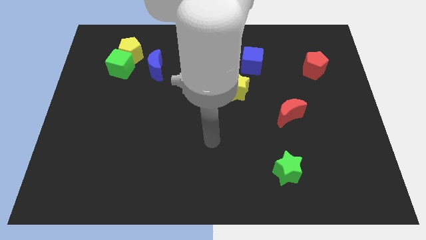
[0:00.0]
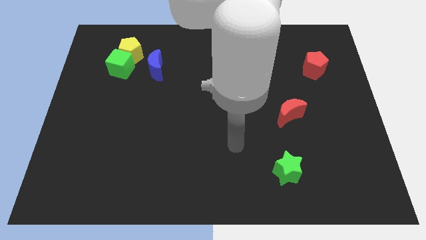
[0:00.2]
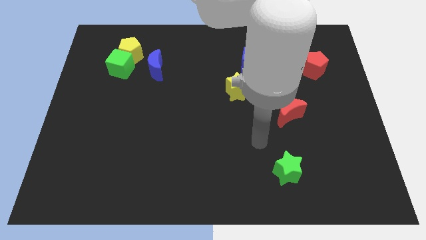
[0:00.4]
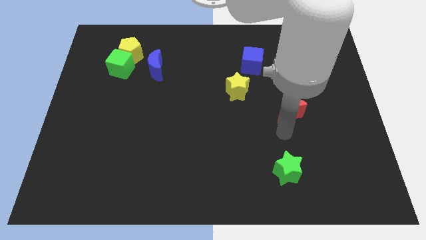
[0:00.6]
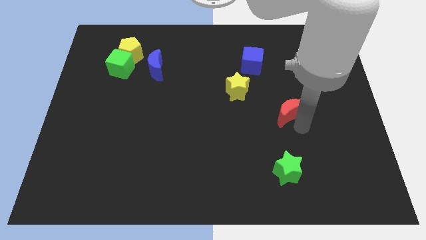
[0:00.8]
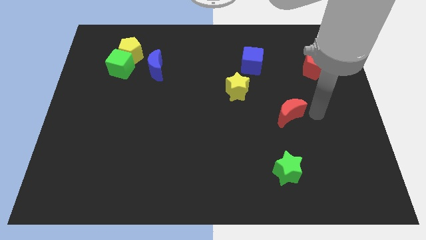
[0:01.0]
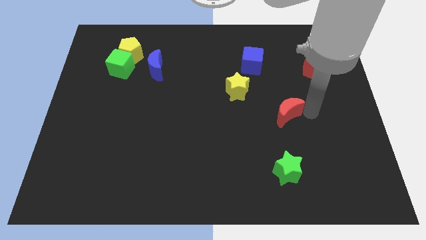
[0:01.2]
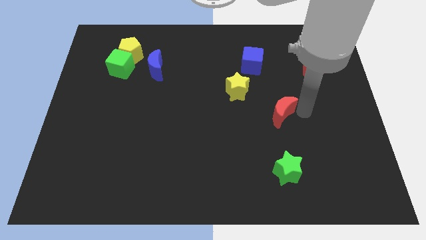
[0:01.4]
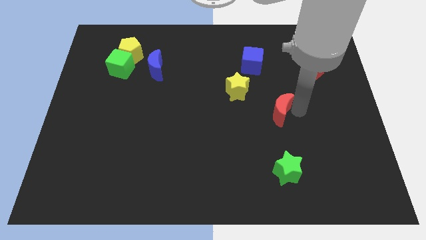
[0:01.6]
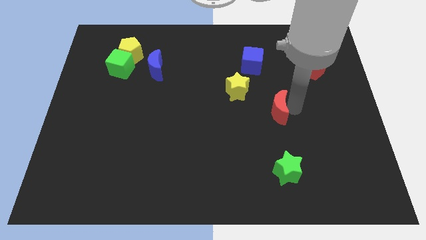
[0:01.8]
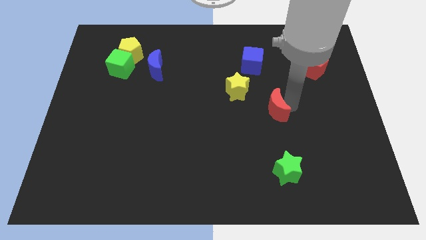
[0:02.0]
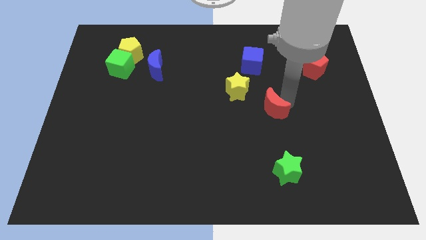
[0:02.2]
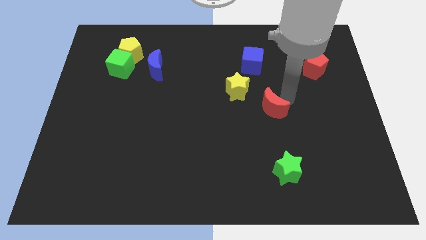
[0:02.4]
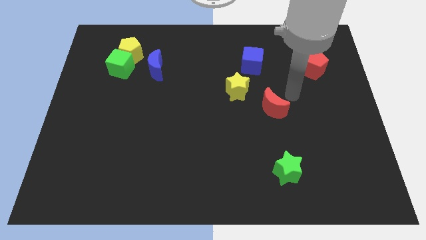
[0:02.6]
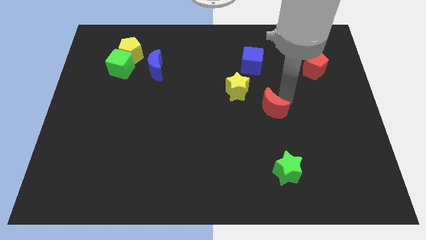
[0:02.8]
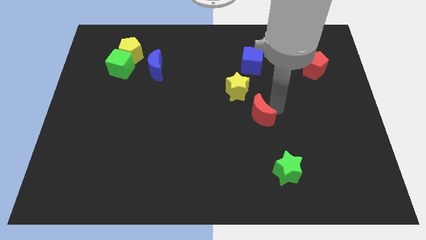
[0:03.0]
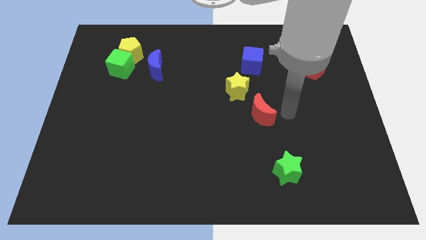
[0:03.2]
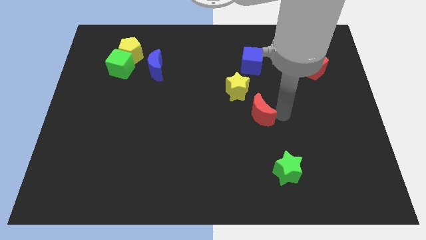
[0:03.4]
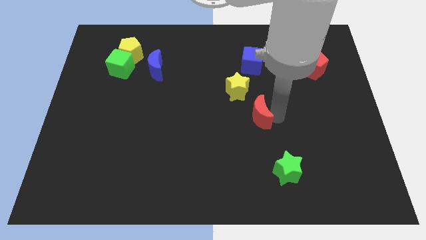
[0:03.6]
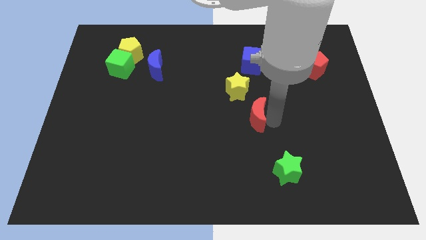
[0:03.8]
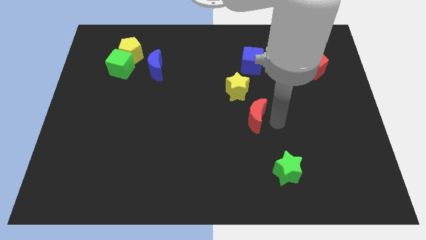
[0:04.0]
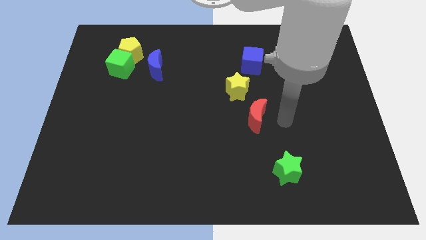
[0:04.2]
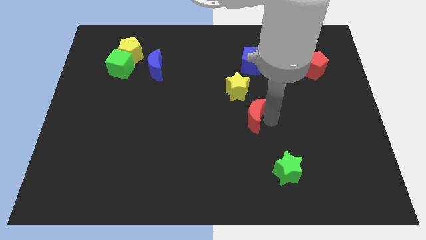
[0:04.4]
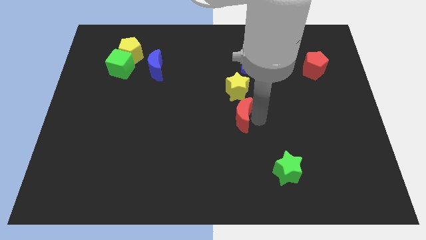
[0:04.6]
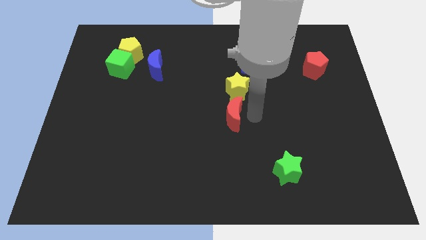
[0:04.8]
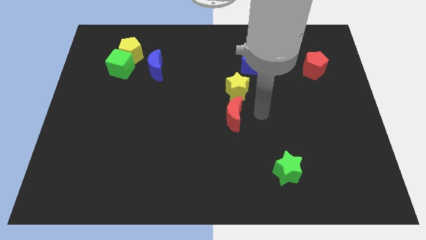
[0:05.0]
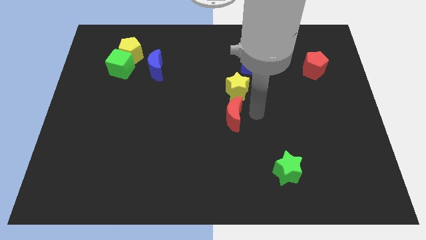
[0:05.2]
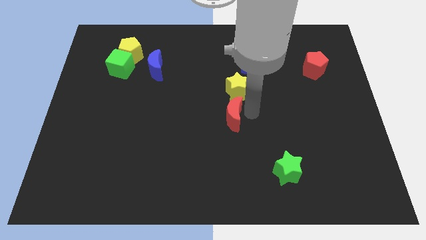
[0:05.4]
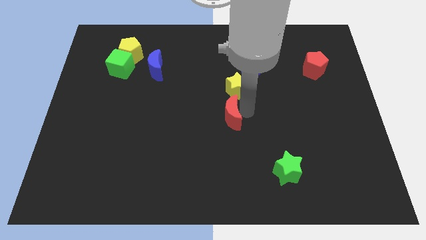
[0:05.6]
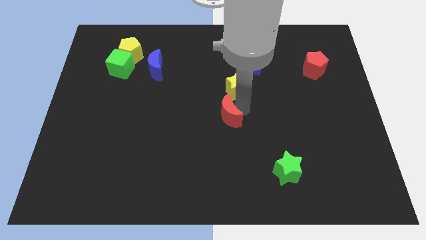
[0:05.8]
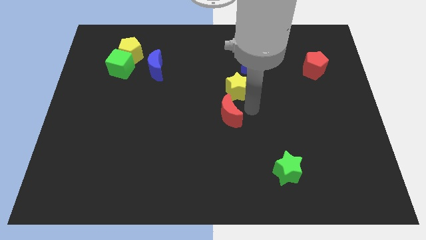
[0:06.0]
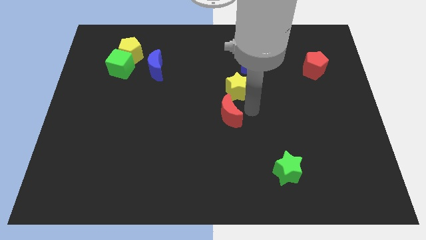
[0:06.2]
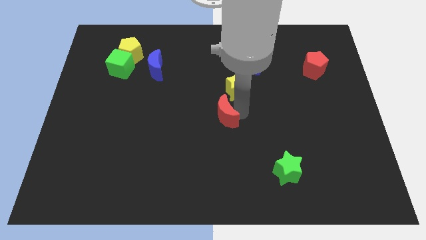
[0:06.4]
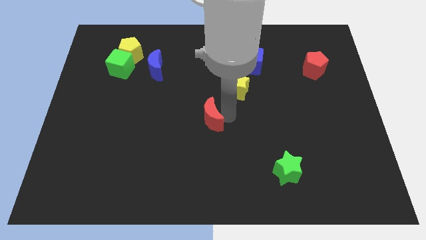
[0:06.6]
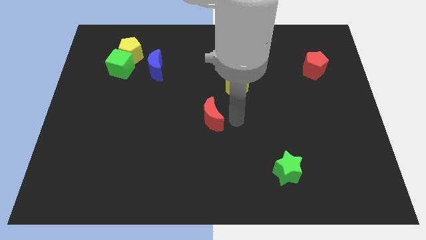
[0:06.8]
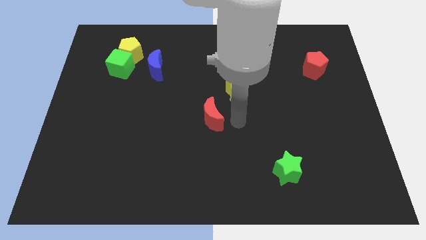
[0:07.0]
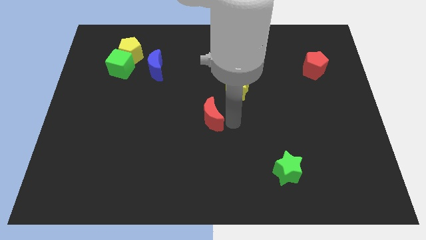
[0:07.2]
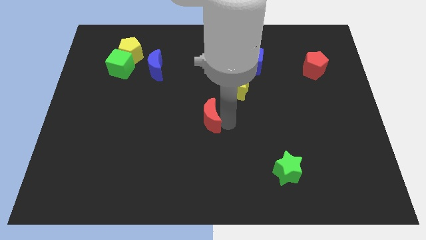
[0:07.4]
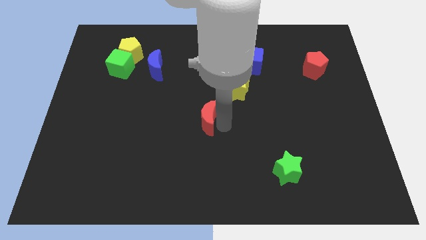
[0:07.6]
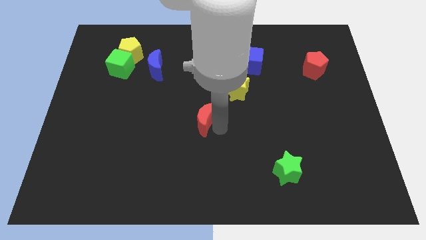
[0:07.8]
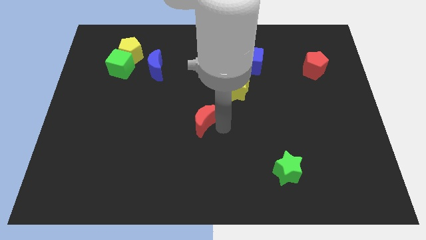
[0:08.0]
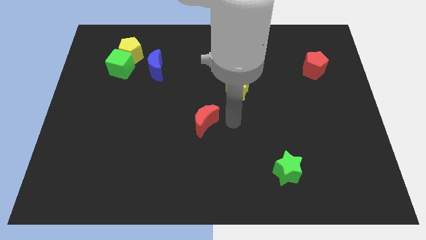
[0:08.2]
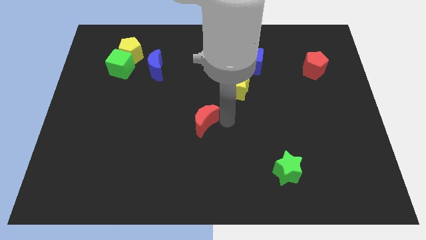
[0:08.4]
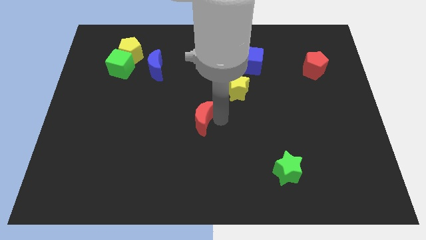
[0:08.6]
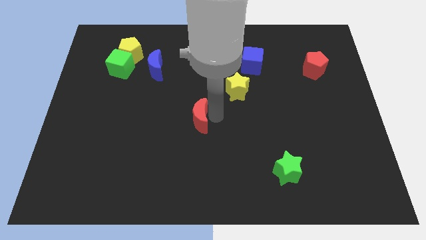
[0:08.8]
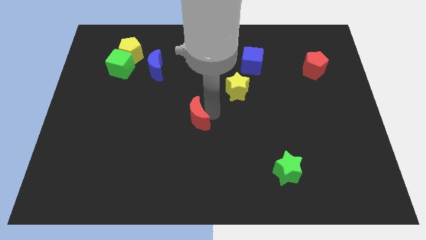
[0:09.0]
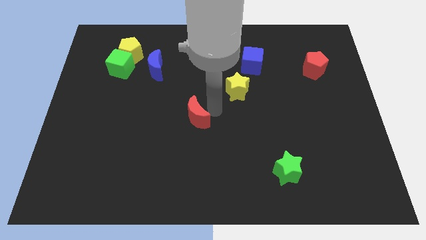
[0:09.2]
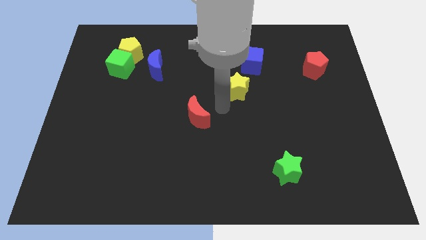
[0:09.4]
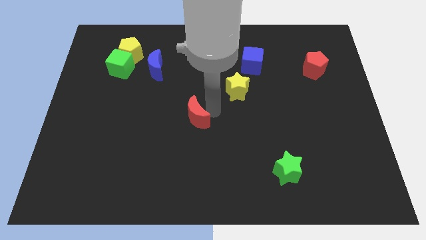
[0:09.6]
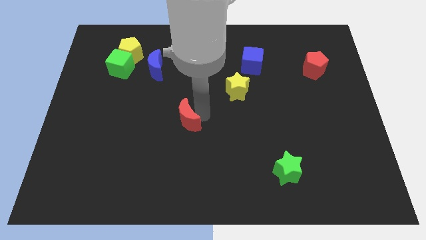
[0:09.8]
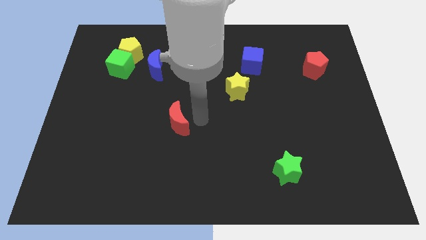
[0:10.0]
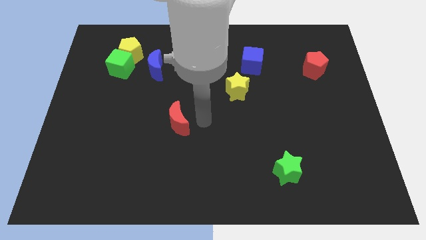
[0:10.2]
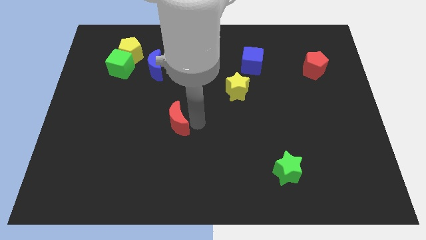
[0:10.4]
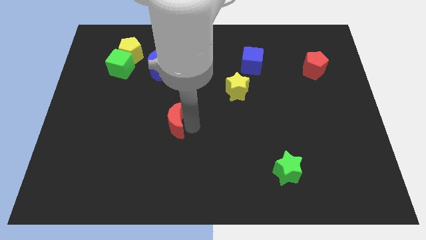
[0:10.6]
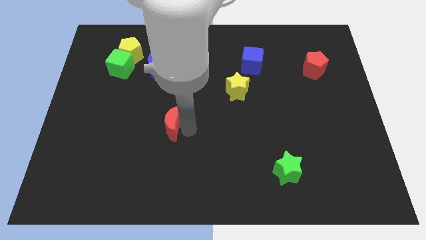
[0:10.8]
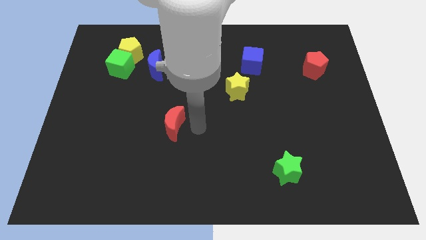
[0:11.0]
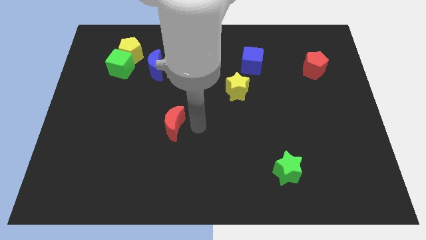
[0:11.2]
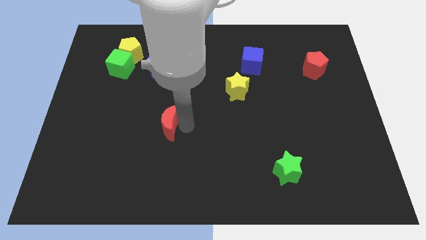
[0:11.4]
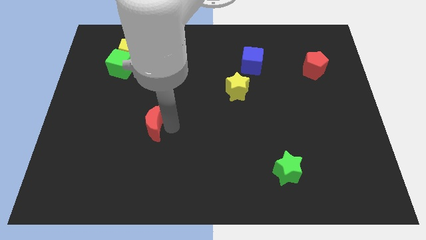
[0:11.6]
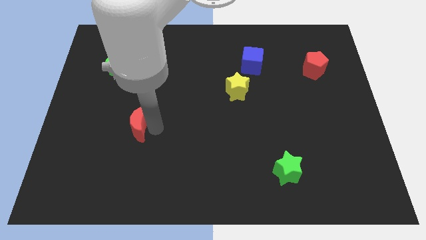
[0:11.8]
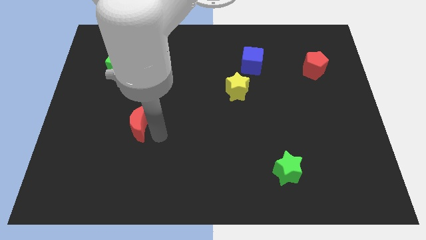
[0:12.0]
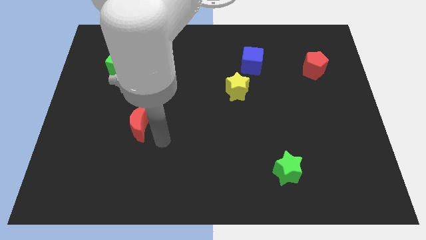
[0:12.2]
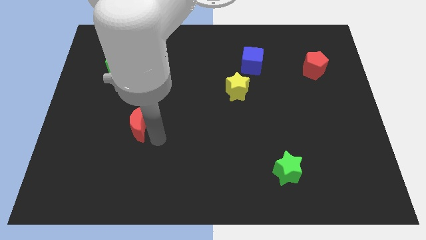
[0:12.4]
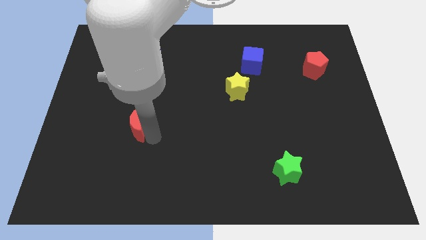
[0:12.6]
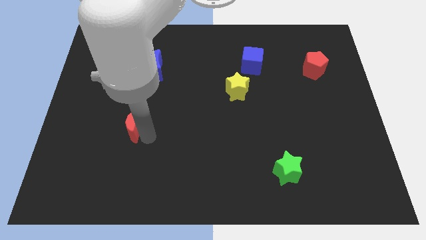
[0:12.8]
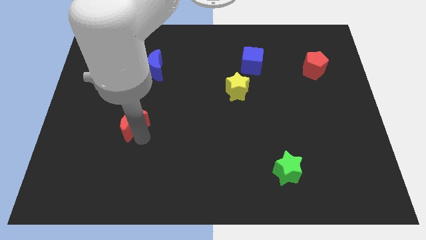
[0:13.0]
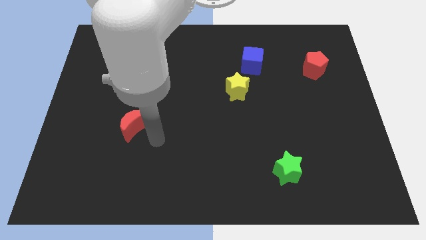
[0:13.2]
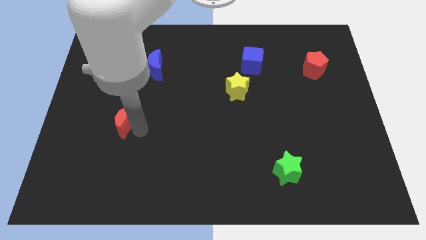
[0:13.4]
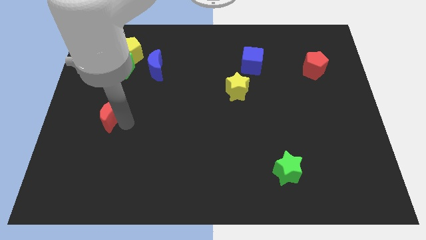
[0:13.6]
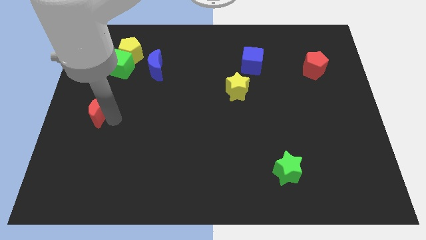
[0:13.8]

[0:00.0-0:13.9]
move the red moon to the left side of the board
